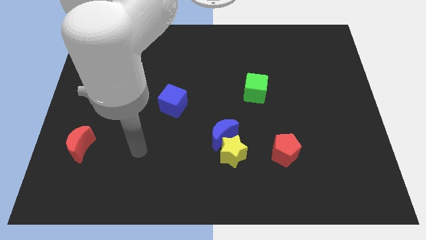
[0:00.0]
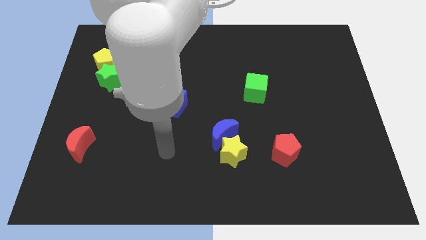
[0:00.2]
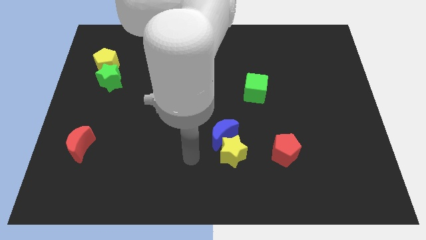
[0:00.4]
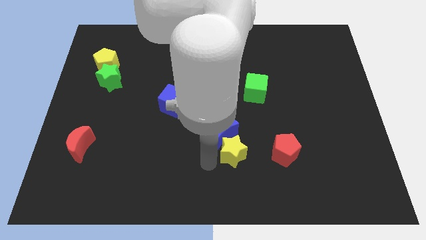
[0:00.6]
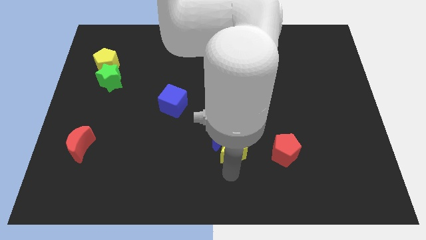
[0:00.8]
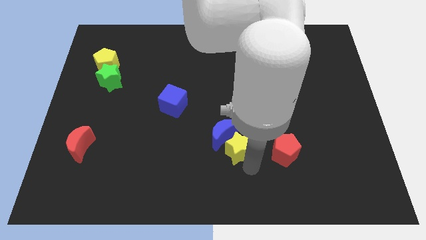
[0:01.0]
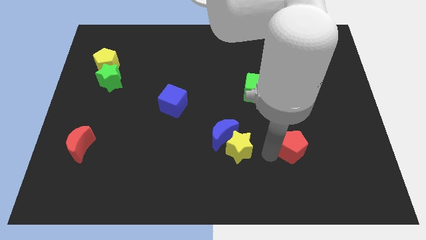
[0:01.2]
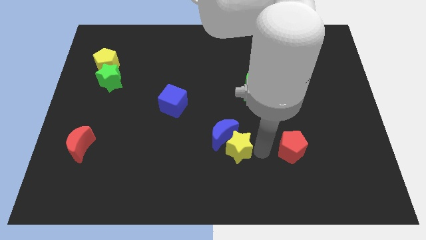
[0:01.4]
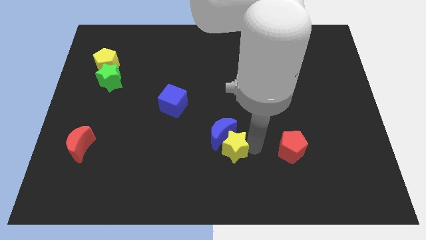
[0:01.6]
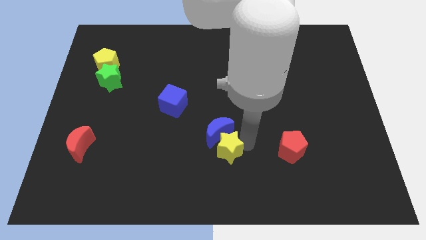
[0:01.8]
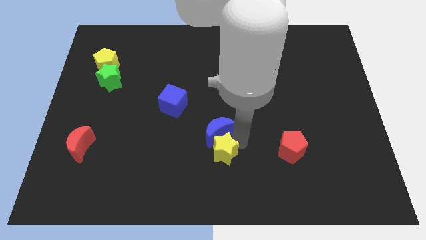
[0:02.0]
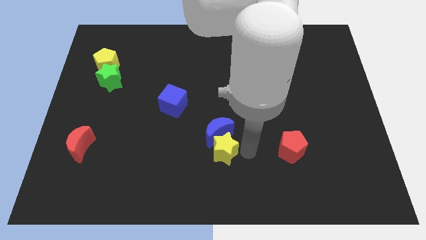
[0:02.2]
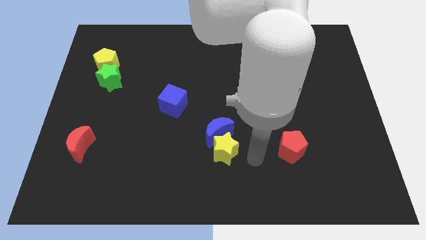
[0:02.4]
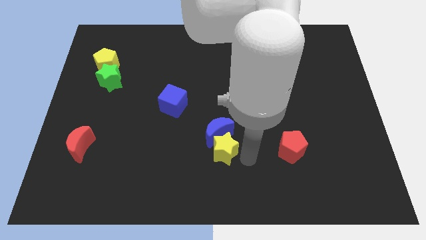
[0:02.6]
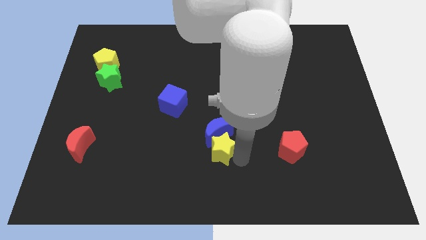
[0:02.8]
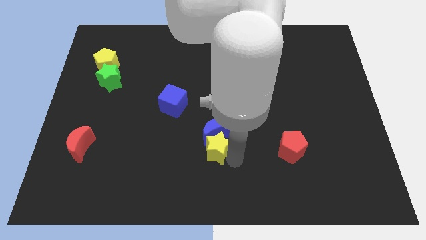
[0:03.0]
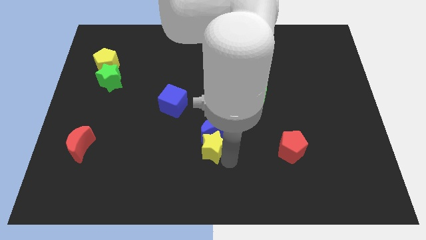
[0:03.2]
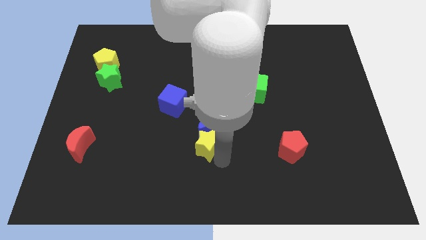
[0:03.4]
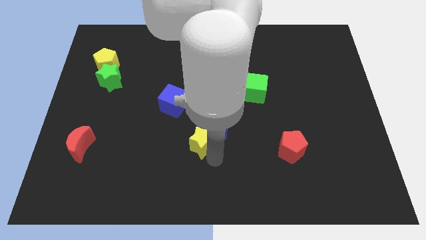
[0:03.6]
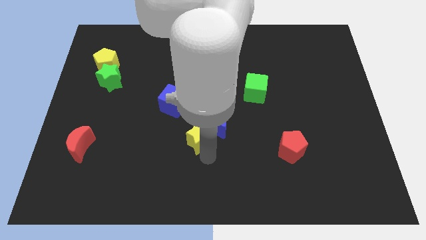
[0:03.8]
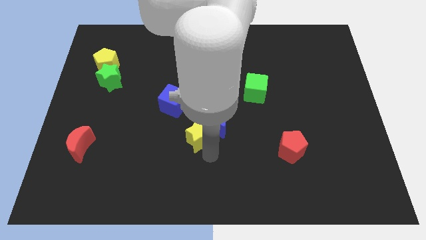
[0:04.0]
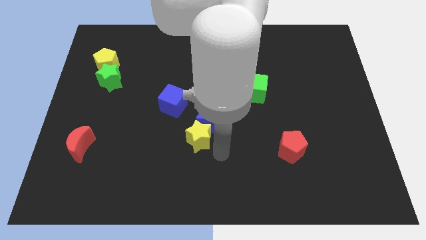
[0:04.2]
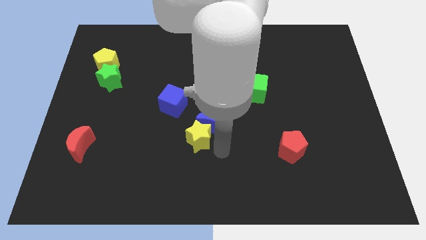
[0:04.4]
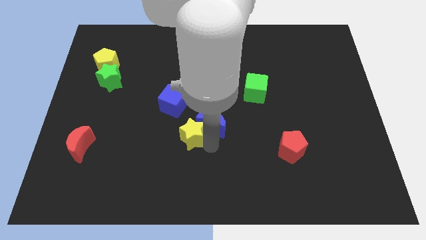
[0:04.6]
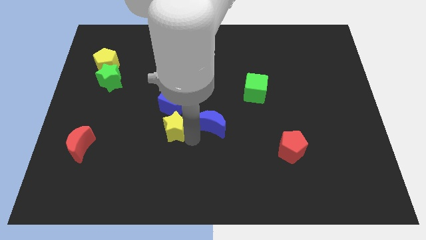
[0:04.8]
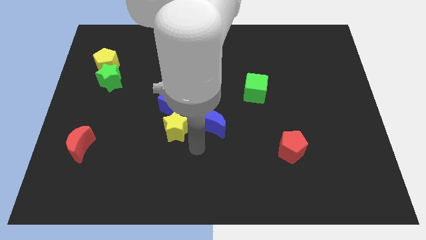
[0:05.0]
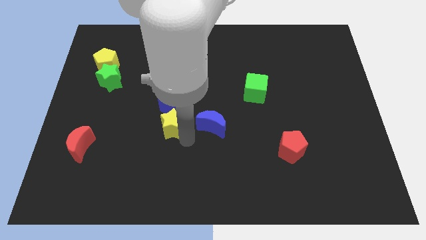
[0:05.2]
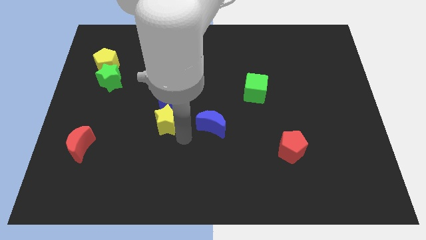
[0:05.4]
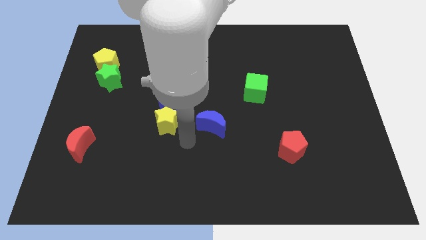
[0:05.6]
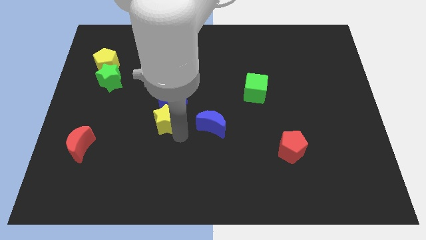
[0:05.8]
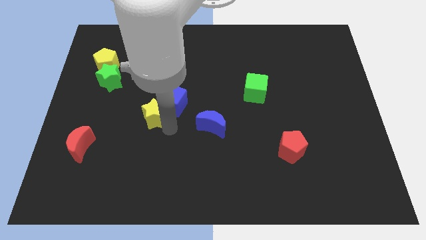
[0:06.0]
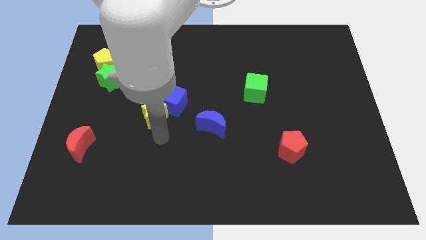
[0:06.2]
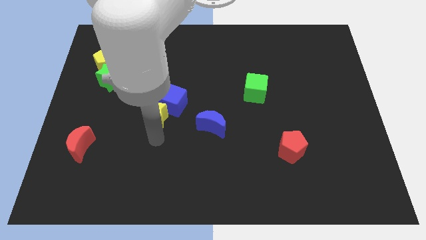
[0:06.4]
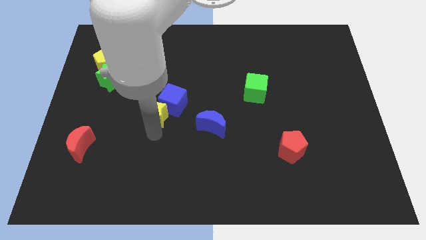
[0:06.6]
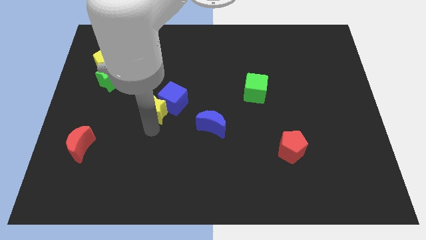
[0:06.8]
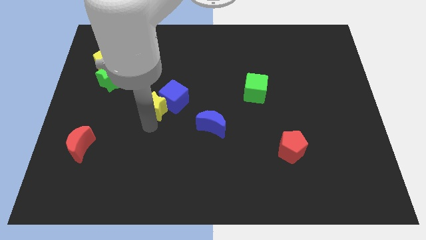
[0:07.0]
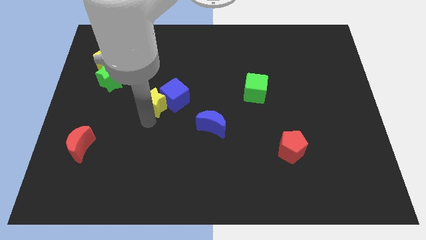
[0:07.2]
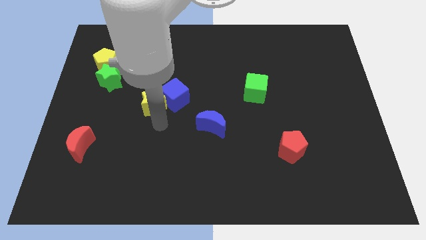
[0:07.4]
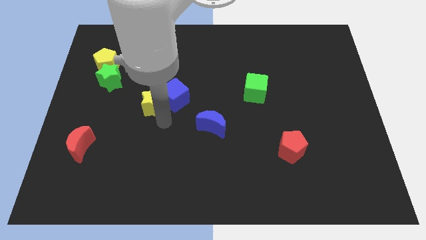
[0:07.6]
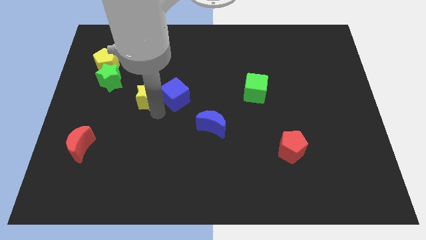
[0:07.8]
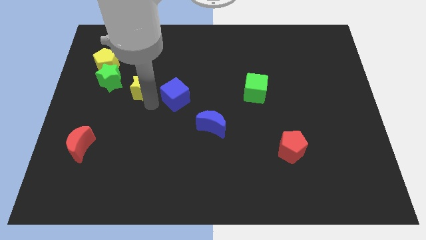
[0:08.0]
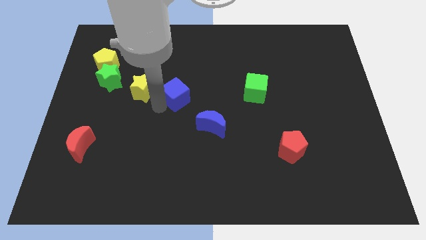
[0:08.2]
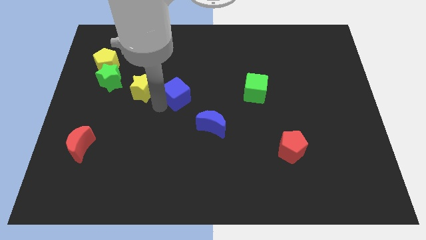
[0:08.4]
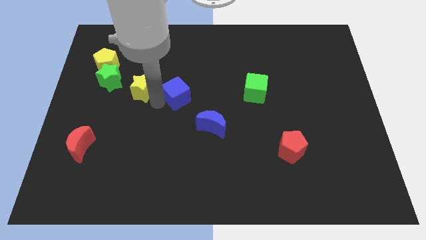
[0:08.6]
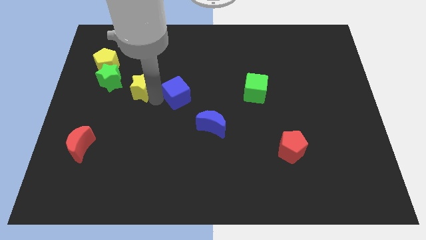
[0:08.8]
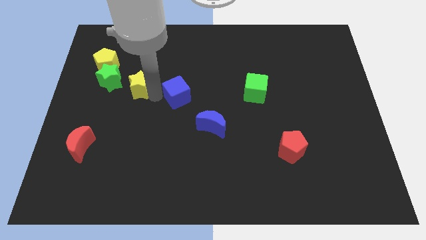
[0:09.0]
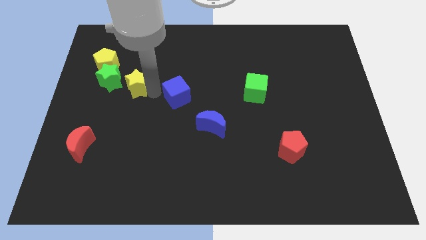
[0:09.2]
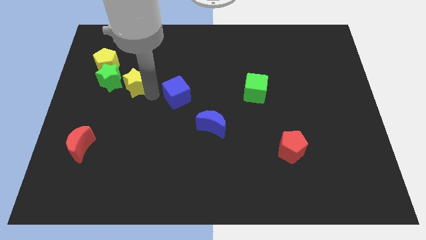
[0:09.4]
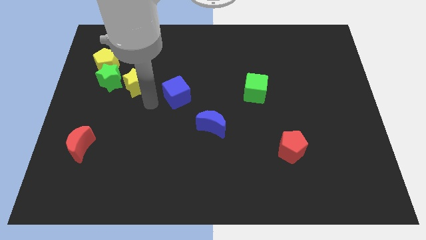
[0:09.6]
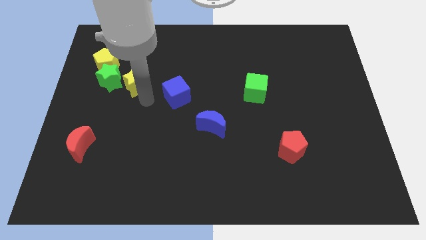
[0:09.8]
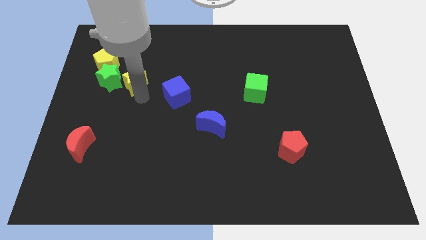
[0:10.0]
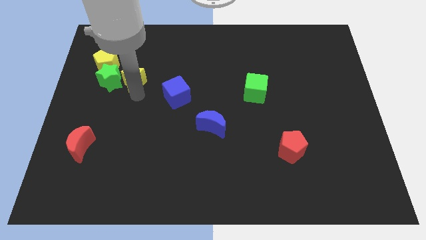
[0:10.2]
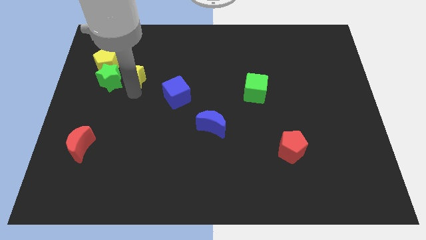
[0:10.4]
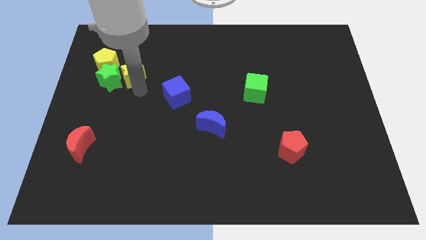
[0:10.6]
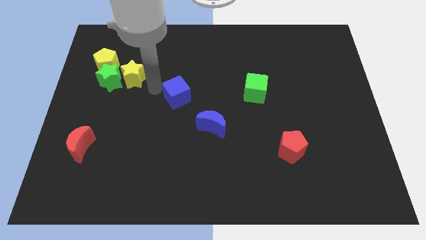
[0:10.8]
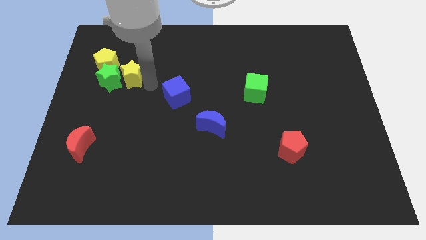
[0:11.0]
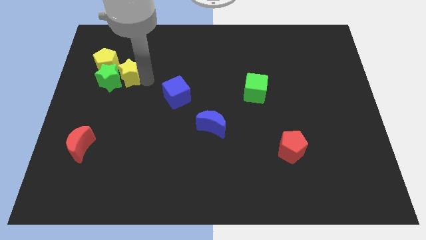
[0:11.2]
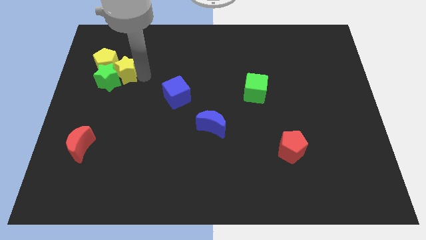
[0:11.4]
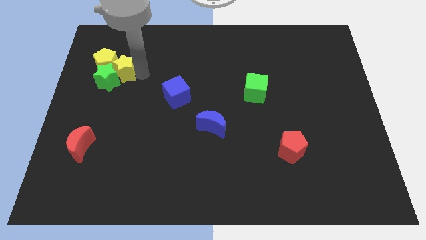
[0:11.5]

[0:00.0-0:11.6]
slide the yellow star towards the yellow pentagon

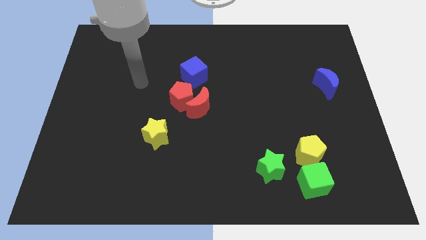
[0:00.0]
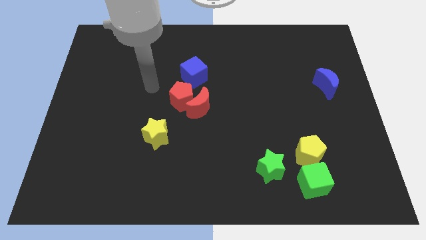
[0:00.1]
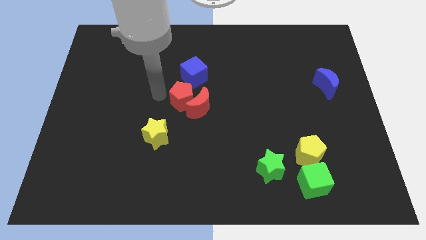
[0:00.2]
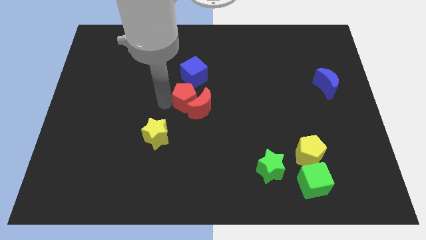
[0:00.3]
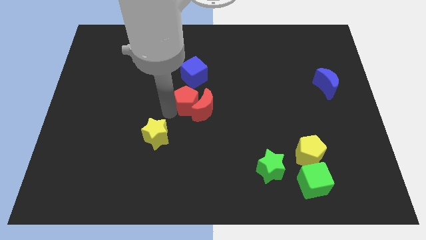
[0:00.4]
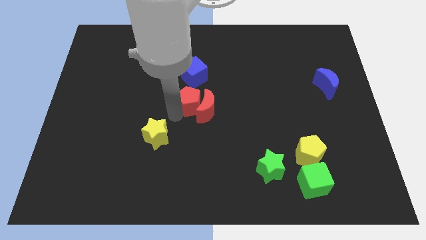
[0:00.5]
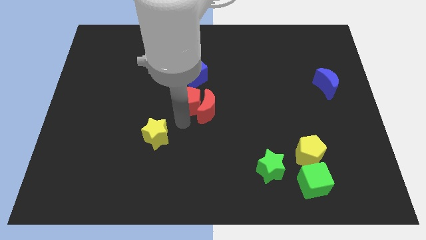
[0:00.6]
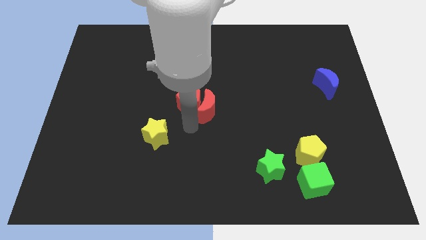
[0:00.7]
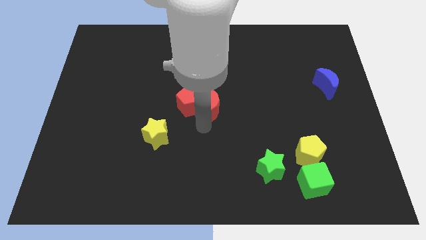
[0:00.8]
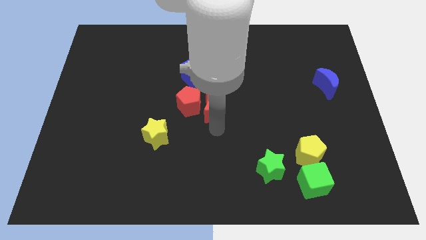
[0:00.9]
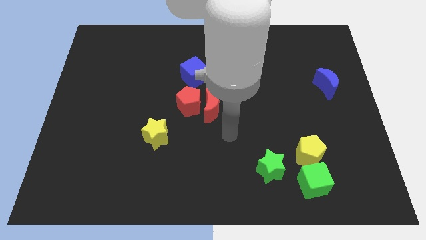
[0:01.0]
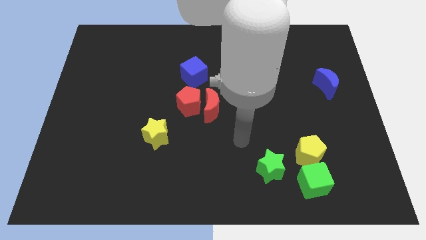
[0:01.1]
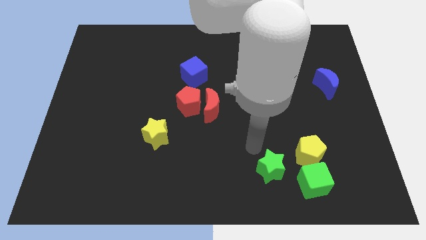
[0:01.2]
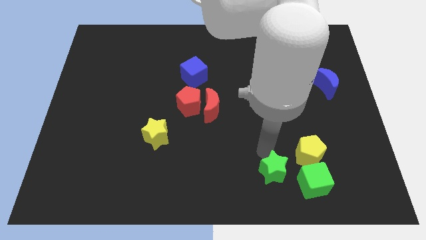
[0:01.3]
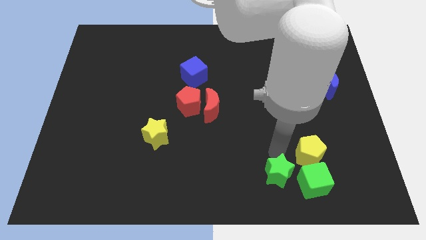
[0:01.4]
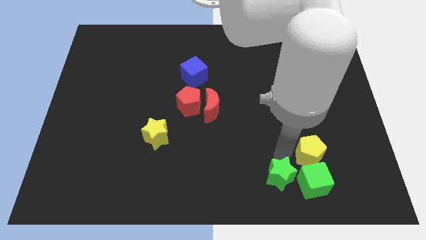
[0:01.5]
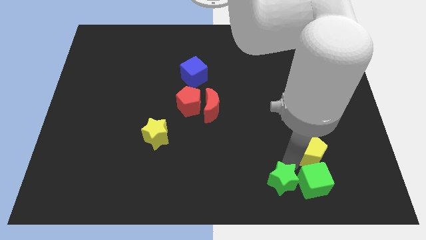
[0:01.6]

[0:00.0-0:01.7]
move the green cube to the green star

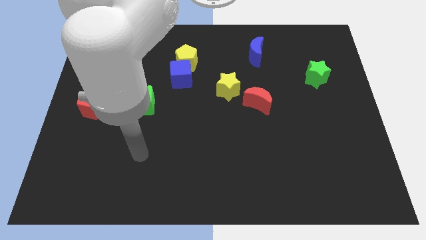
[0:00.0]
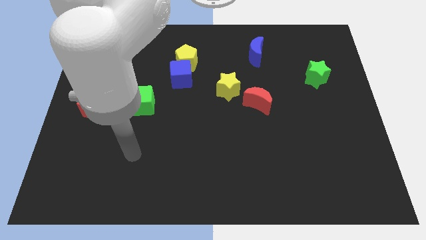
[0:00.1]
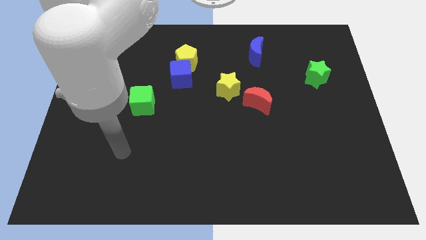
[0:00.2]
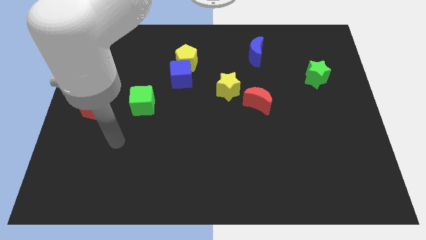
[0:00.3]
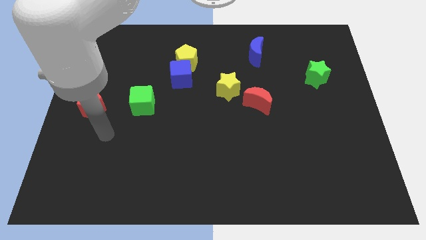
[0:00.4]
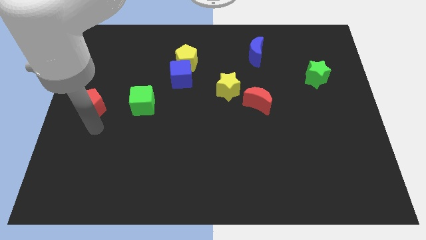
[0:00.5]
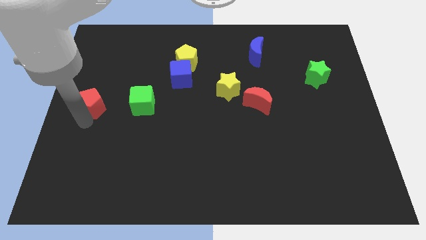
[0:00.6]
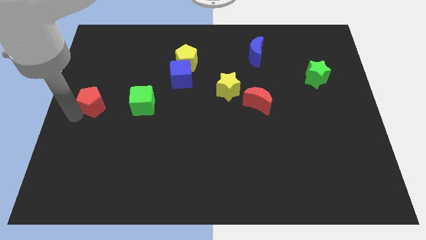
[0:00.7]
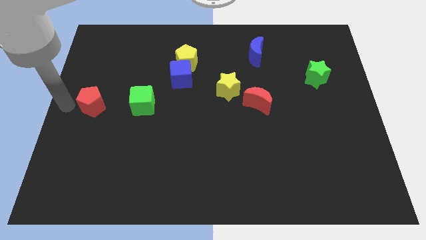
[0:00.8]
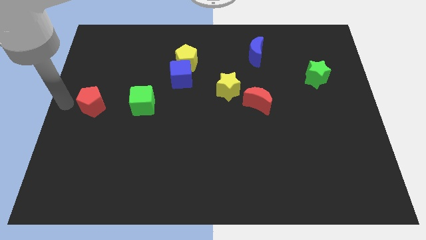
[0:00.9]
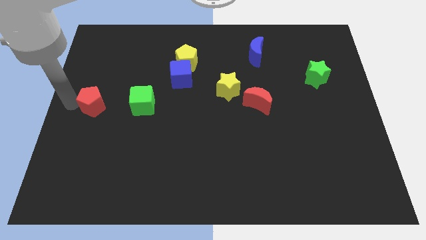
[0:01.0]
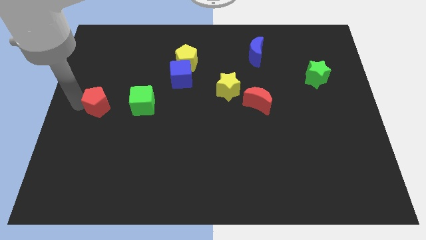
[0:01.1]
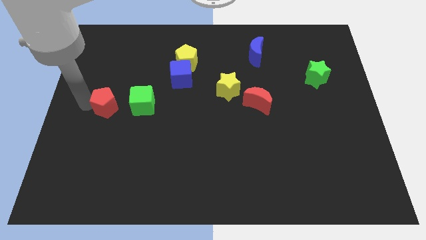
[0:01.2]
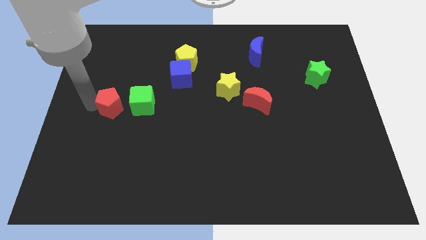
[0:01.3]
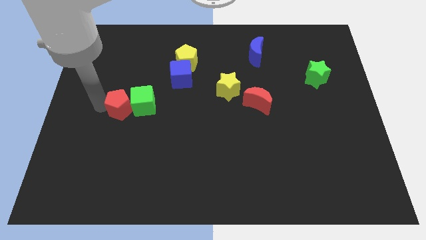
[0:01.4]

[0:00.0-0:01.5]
slide the red pentagon close to the green cube
